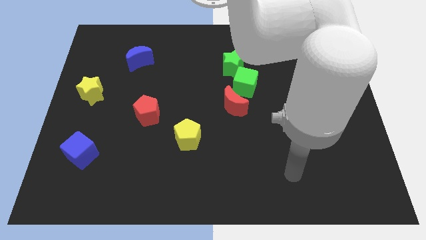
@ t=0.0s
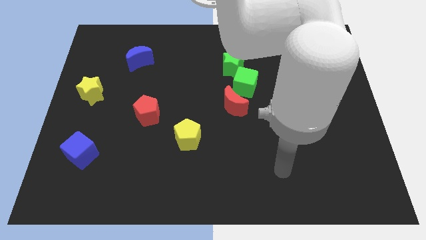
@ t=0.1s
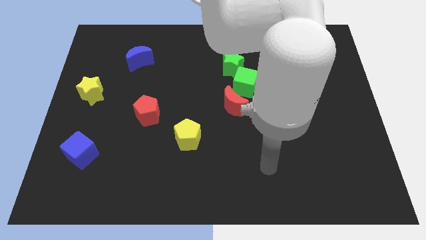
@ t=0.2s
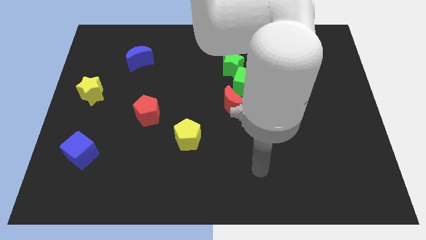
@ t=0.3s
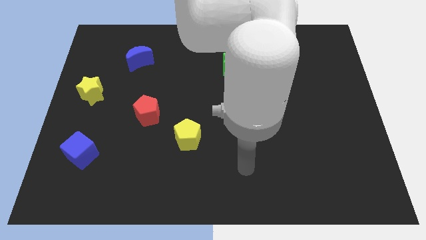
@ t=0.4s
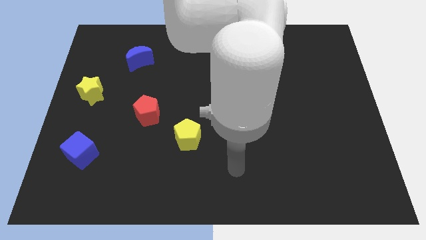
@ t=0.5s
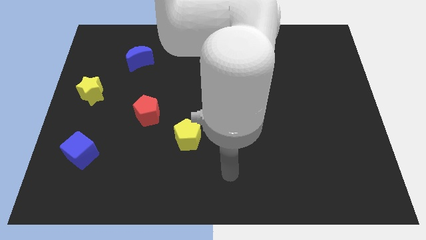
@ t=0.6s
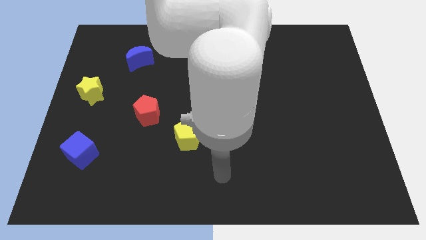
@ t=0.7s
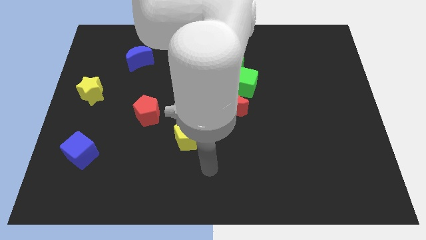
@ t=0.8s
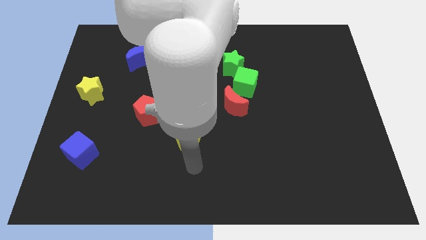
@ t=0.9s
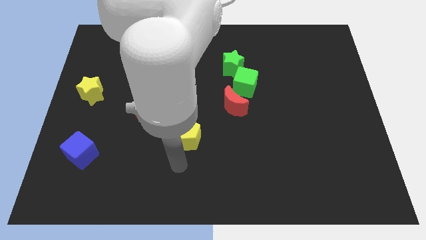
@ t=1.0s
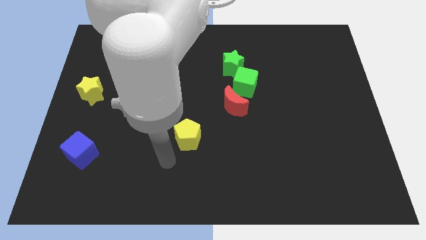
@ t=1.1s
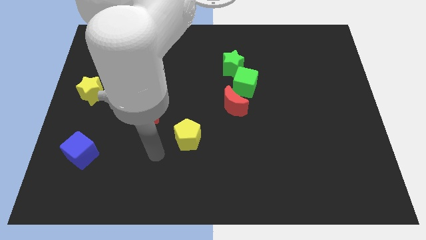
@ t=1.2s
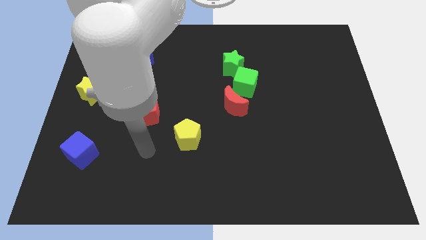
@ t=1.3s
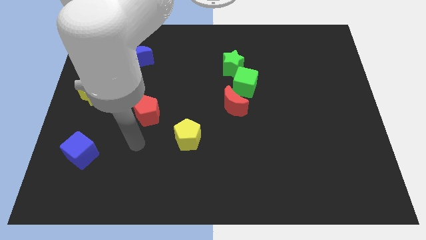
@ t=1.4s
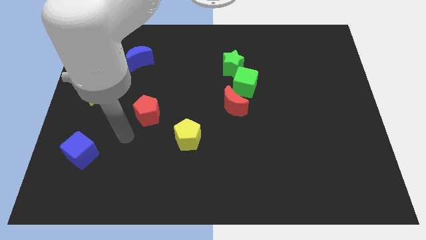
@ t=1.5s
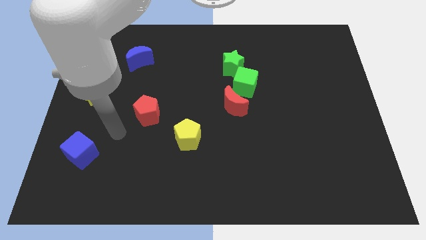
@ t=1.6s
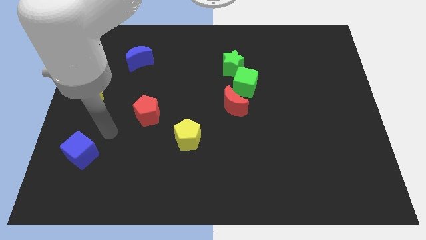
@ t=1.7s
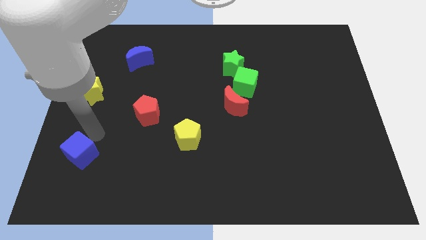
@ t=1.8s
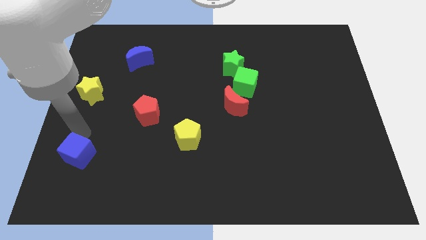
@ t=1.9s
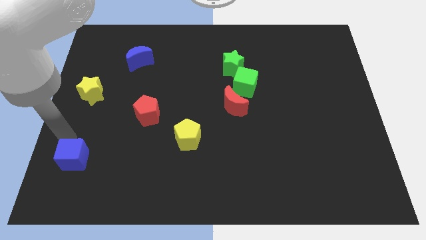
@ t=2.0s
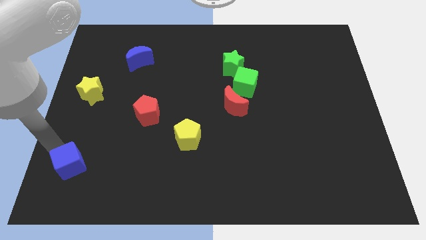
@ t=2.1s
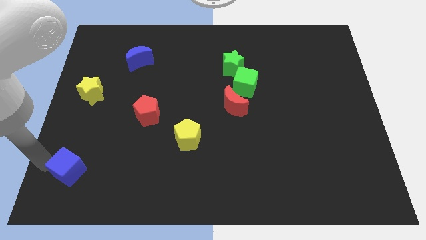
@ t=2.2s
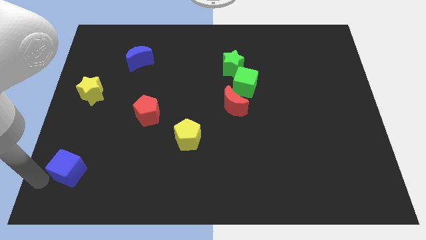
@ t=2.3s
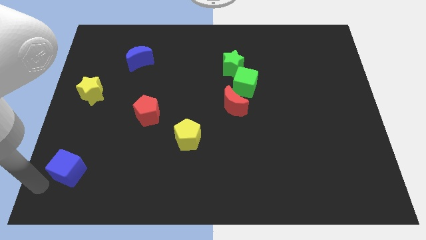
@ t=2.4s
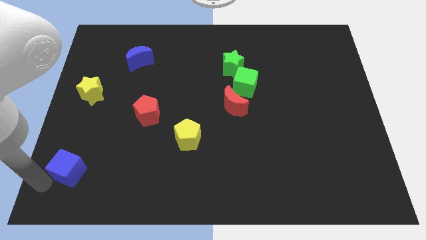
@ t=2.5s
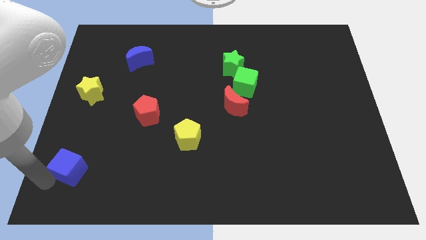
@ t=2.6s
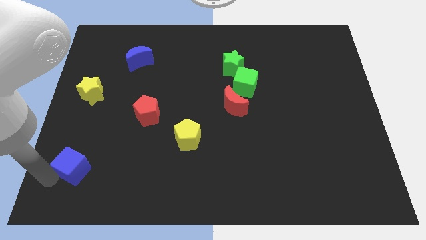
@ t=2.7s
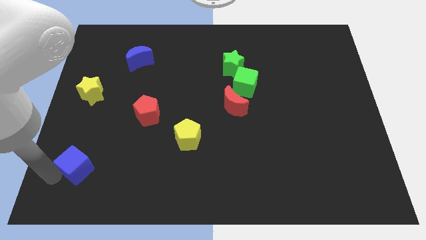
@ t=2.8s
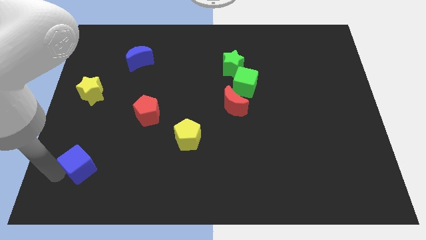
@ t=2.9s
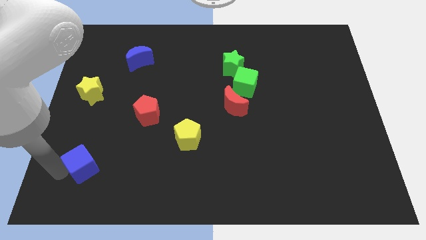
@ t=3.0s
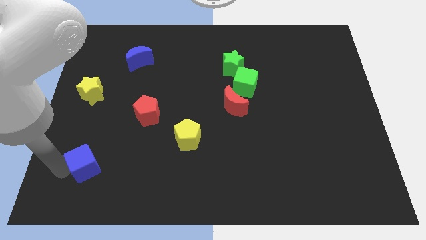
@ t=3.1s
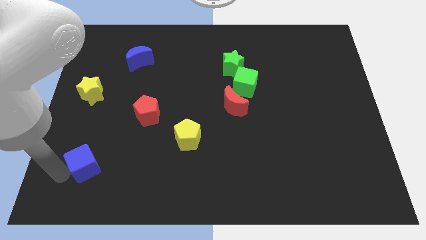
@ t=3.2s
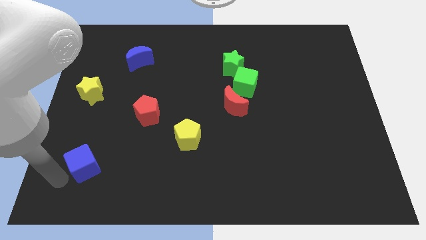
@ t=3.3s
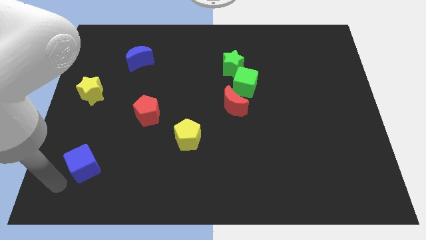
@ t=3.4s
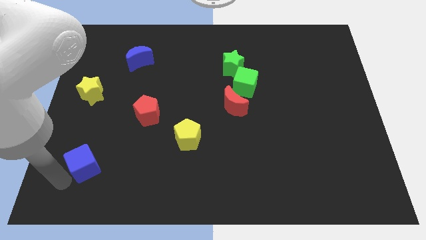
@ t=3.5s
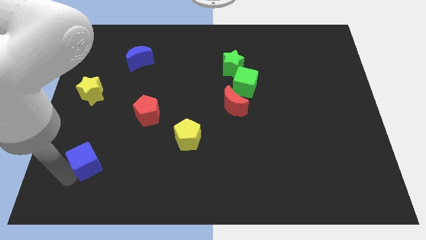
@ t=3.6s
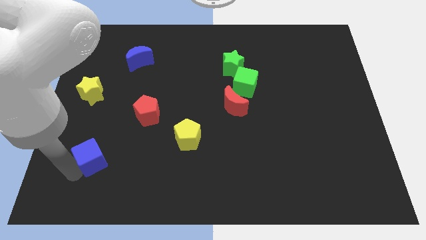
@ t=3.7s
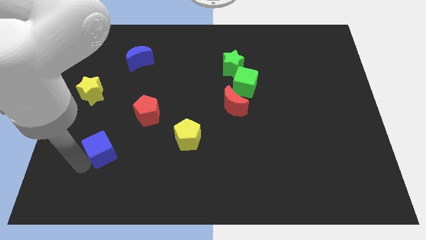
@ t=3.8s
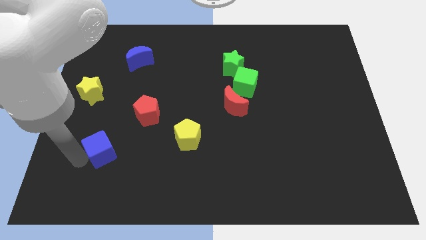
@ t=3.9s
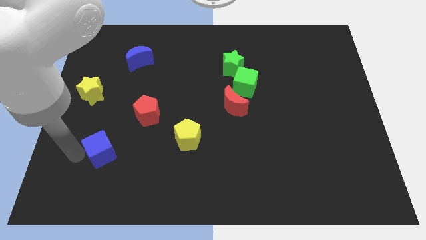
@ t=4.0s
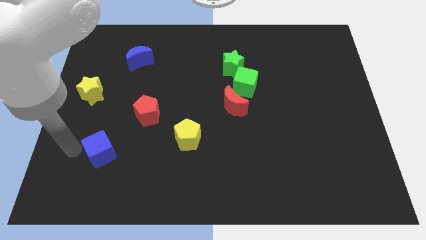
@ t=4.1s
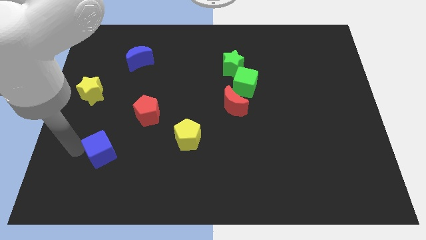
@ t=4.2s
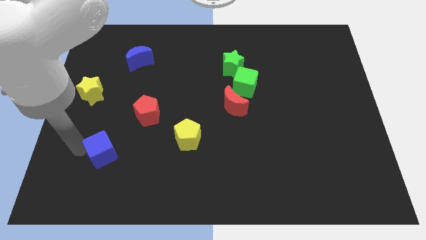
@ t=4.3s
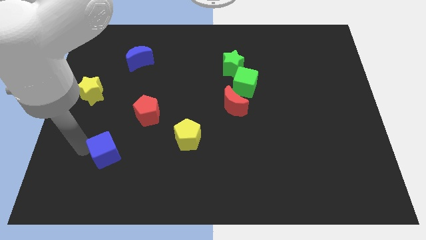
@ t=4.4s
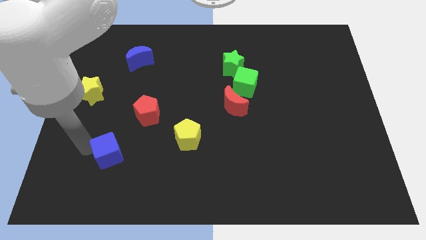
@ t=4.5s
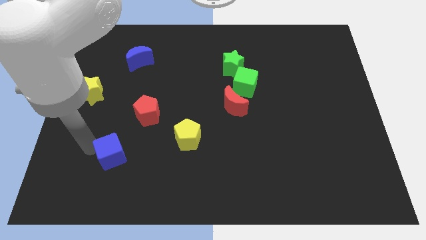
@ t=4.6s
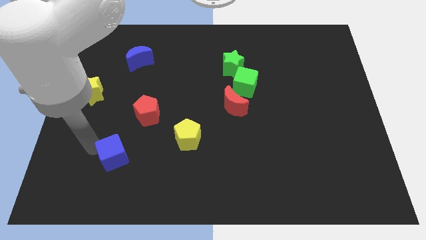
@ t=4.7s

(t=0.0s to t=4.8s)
push the blue cube a bit to the right

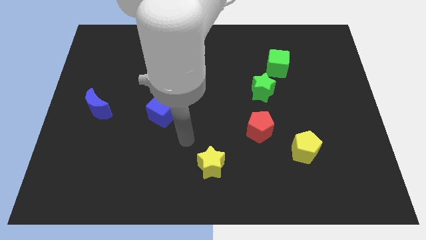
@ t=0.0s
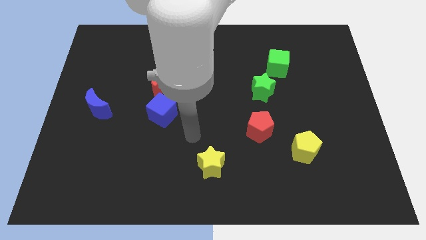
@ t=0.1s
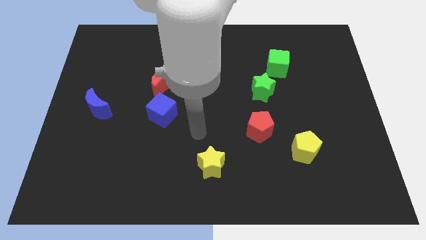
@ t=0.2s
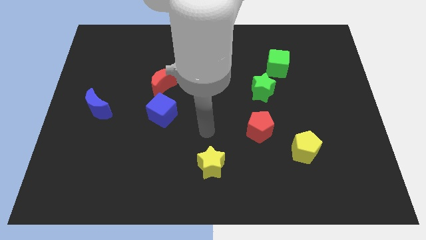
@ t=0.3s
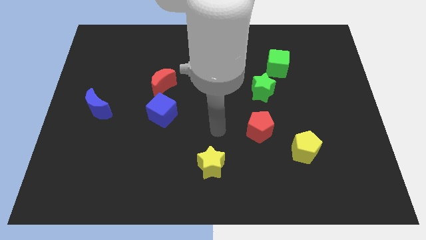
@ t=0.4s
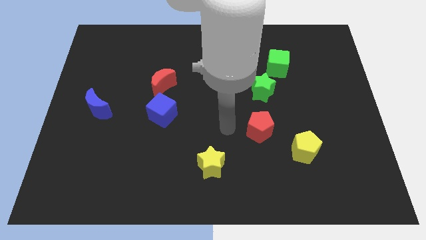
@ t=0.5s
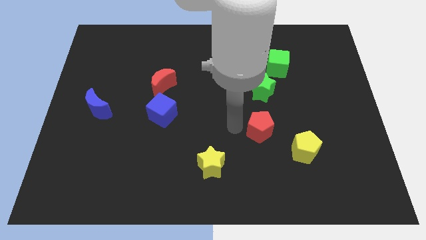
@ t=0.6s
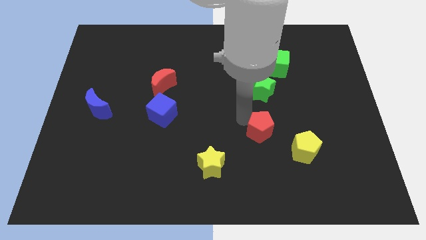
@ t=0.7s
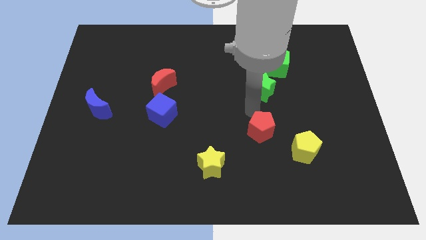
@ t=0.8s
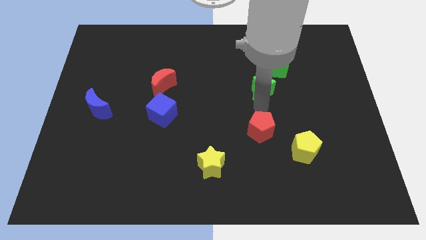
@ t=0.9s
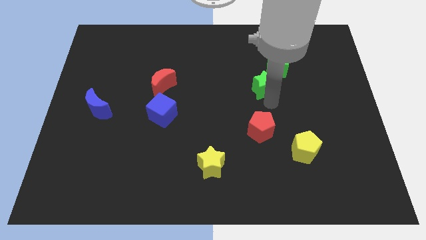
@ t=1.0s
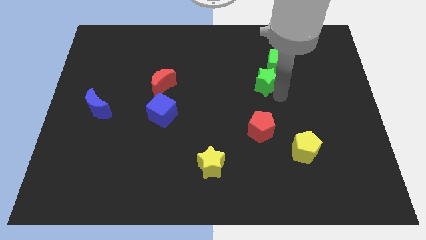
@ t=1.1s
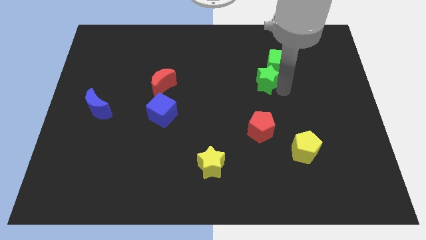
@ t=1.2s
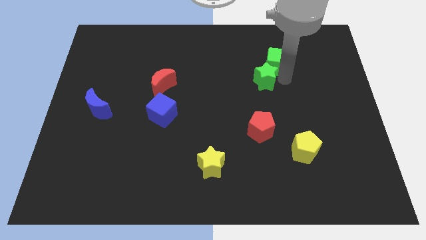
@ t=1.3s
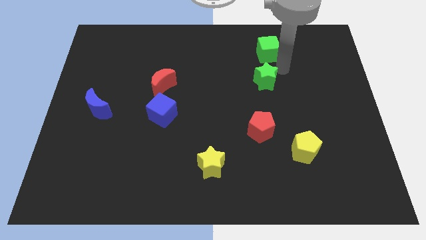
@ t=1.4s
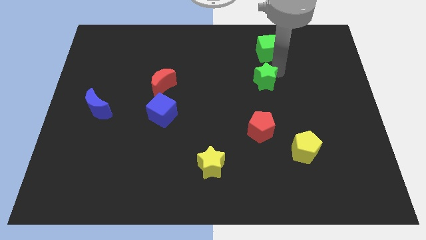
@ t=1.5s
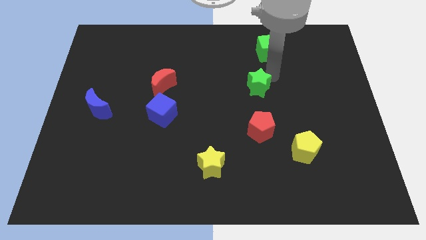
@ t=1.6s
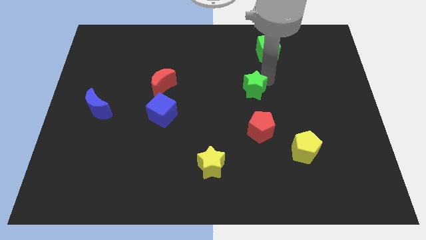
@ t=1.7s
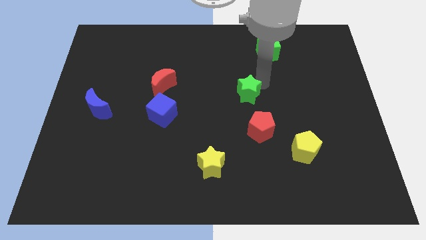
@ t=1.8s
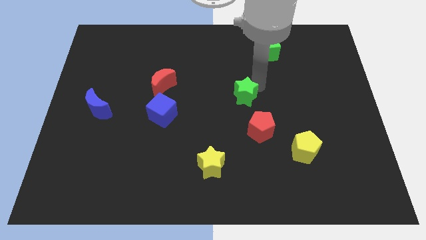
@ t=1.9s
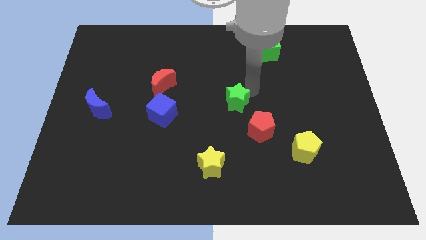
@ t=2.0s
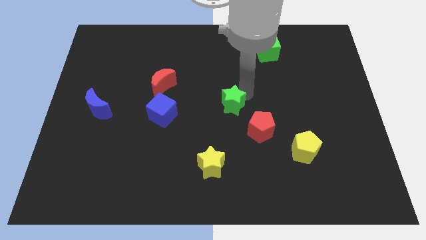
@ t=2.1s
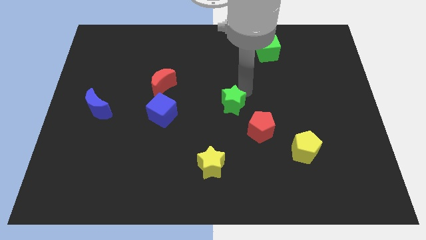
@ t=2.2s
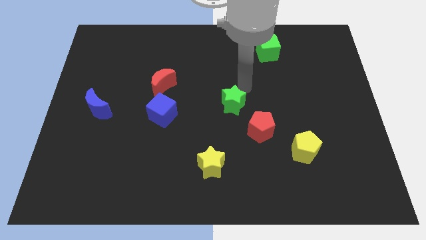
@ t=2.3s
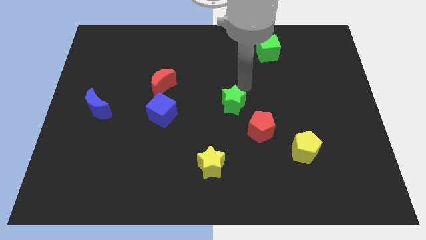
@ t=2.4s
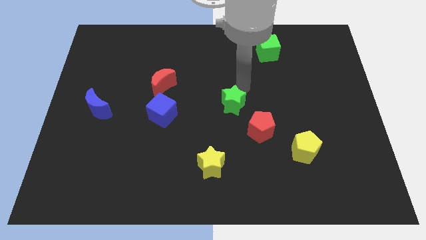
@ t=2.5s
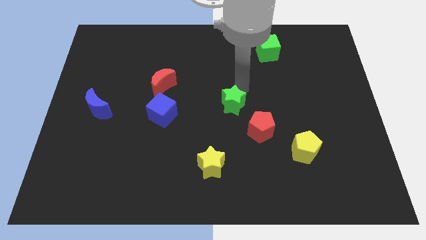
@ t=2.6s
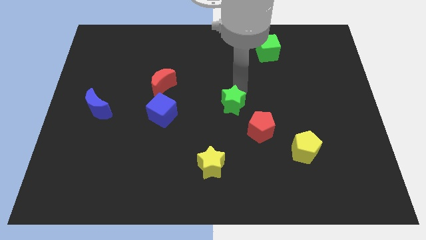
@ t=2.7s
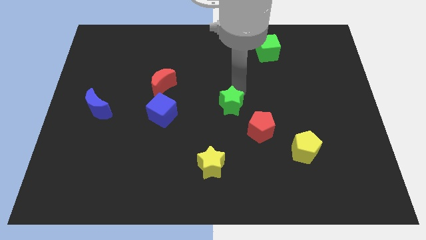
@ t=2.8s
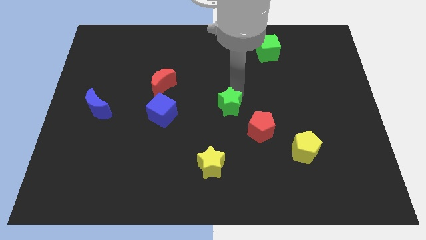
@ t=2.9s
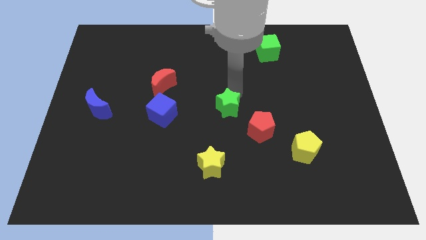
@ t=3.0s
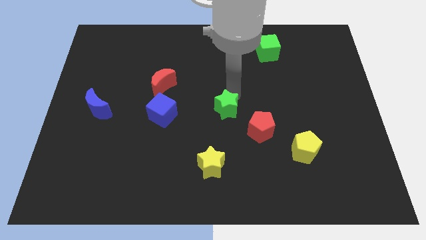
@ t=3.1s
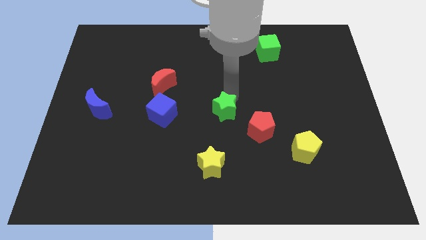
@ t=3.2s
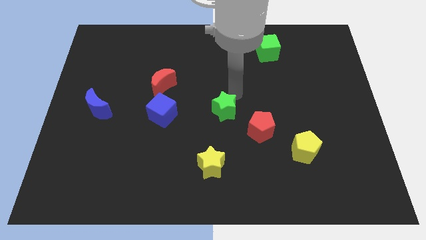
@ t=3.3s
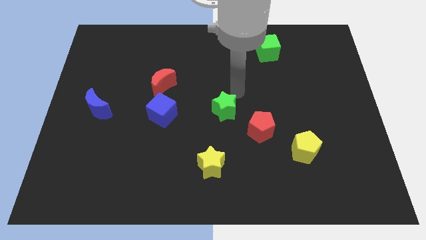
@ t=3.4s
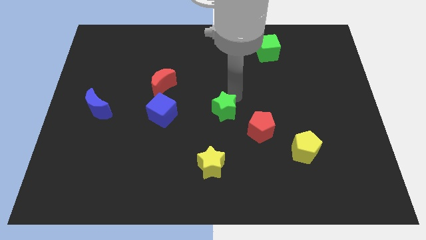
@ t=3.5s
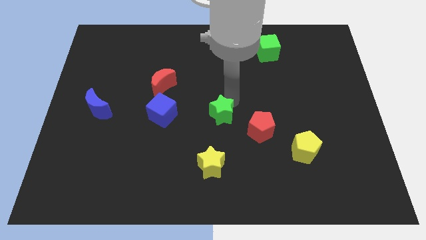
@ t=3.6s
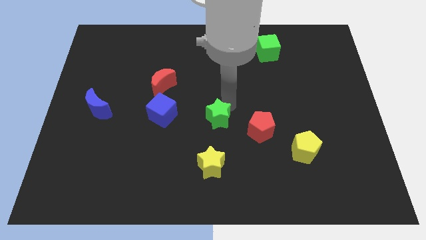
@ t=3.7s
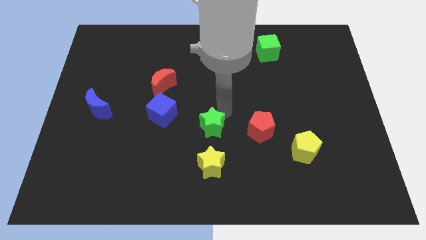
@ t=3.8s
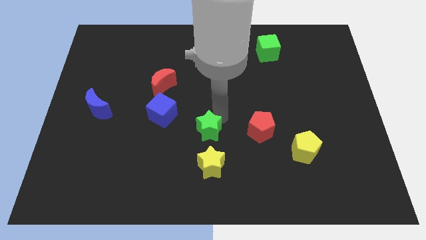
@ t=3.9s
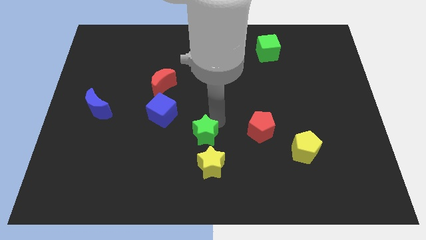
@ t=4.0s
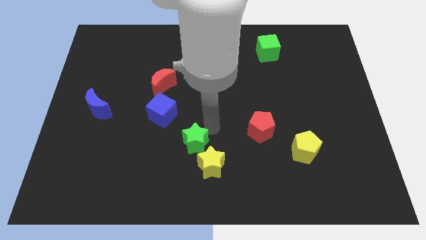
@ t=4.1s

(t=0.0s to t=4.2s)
slide the green star diagonally down and to the left
